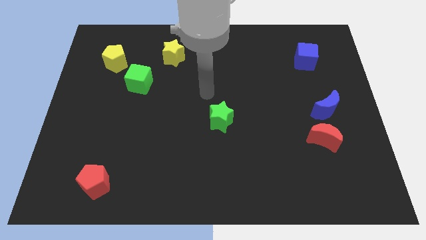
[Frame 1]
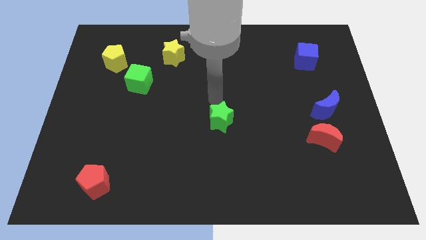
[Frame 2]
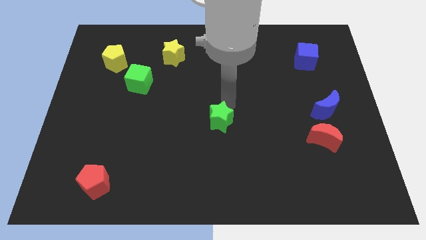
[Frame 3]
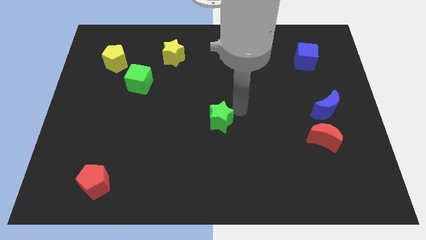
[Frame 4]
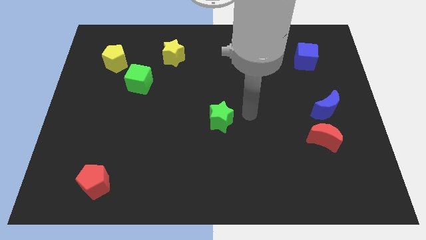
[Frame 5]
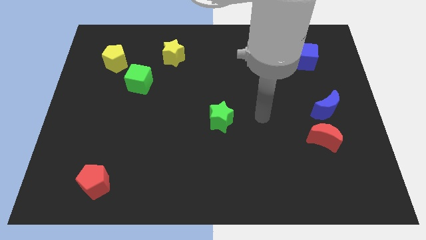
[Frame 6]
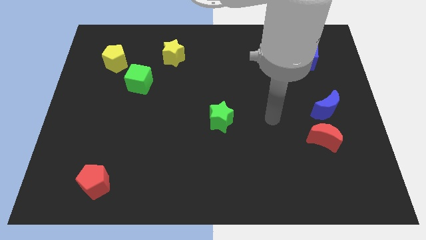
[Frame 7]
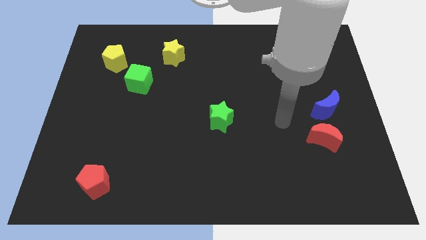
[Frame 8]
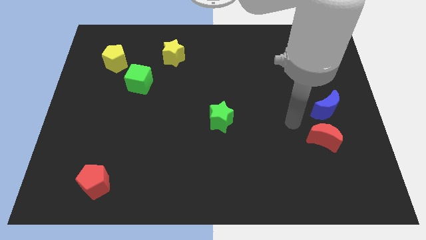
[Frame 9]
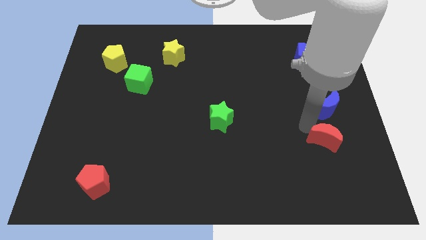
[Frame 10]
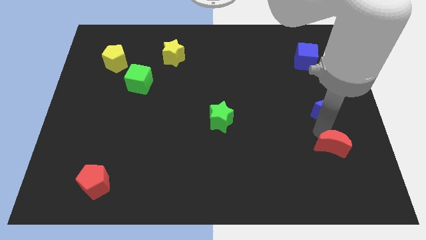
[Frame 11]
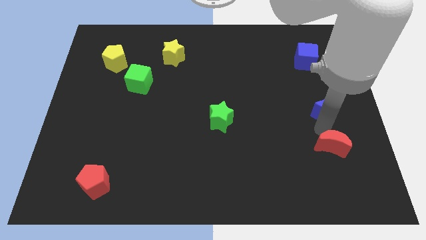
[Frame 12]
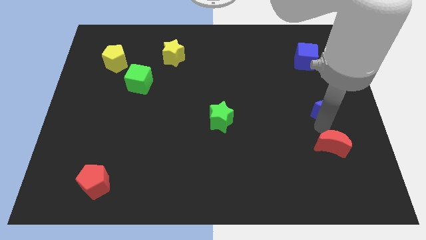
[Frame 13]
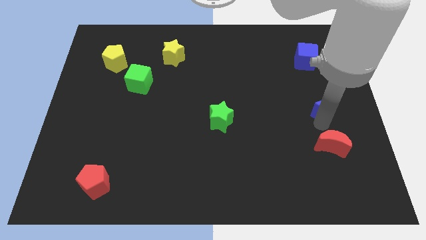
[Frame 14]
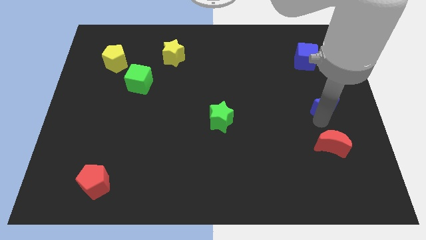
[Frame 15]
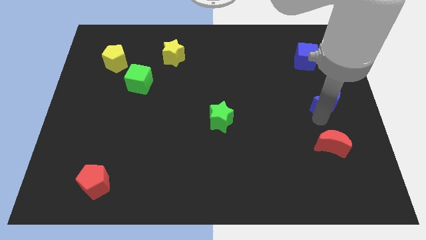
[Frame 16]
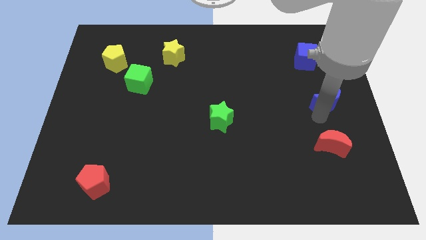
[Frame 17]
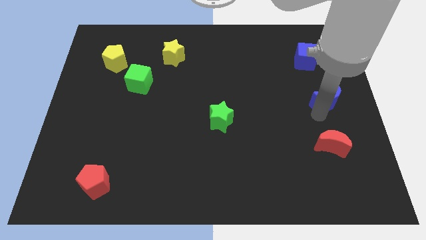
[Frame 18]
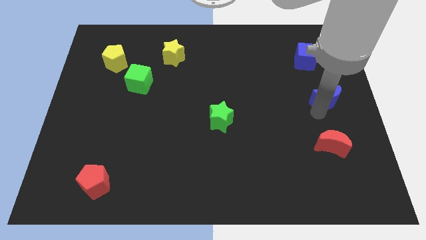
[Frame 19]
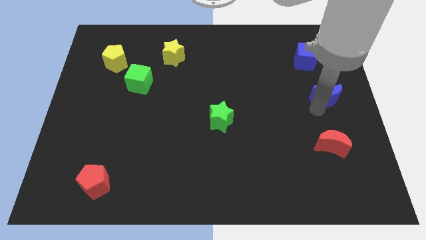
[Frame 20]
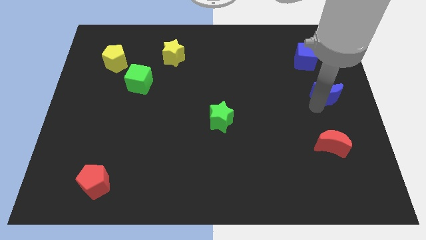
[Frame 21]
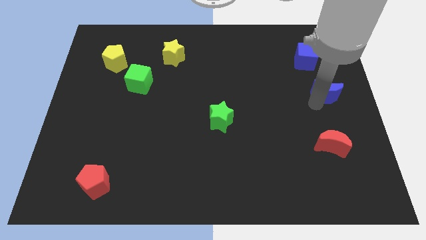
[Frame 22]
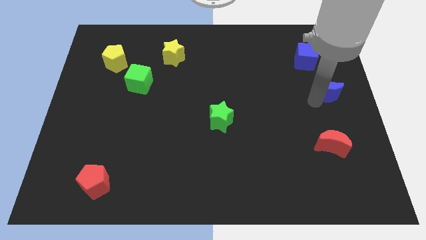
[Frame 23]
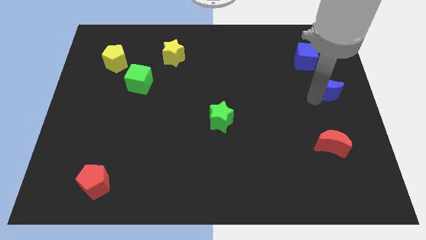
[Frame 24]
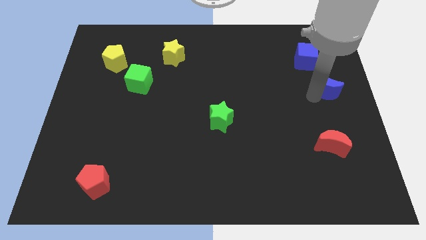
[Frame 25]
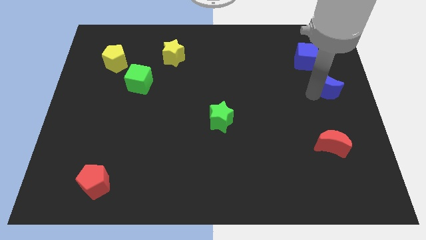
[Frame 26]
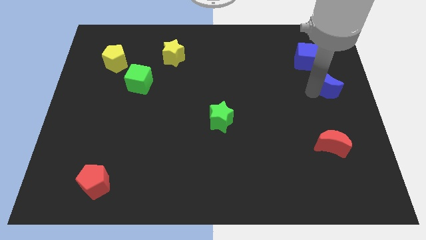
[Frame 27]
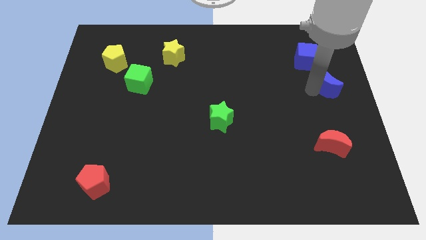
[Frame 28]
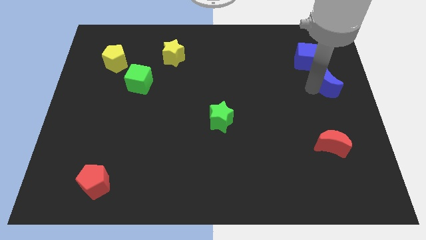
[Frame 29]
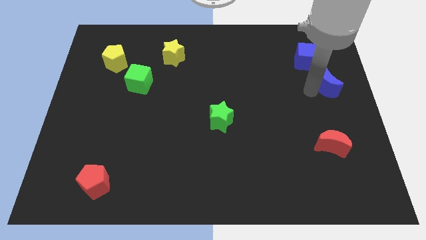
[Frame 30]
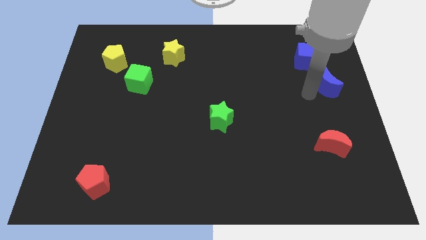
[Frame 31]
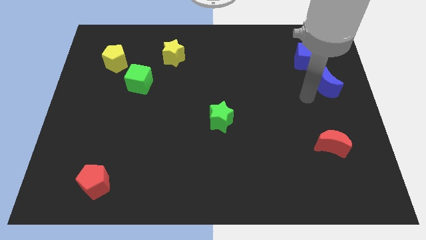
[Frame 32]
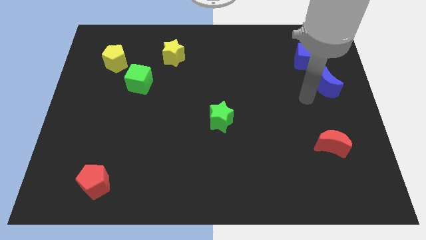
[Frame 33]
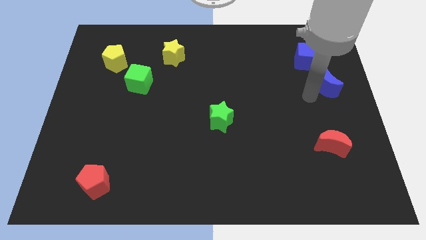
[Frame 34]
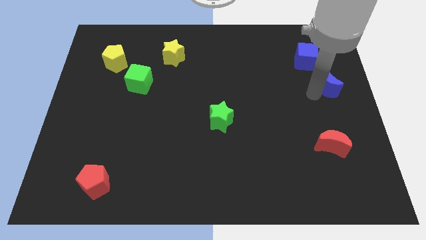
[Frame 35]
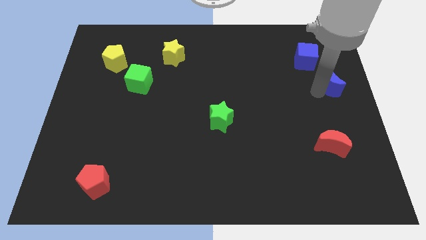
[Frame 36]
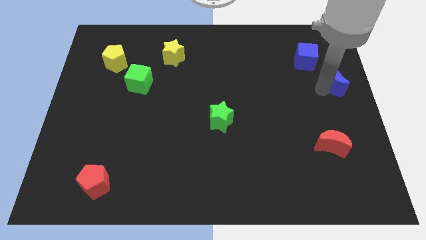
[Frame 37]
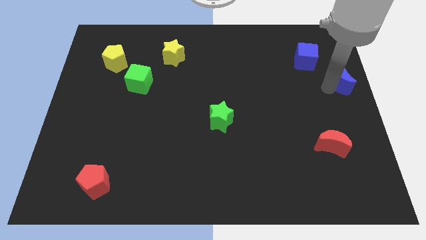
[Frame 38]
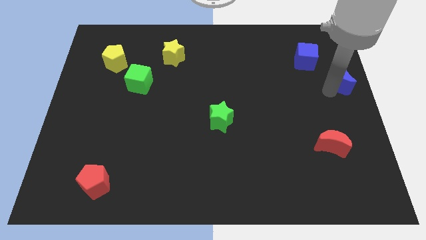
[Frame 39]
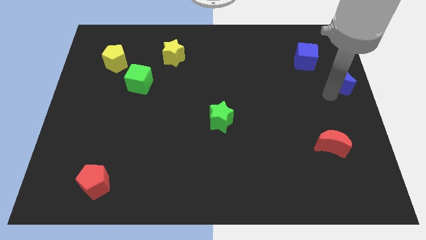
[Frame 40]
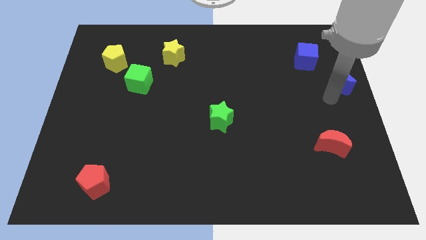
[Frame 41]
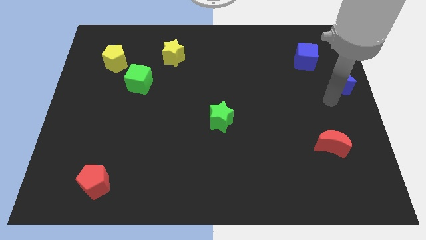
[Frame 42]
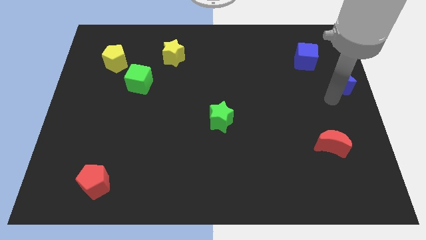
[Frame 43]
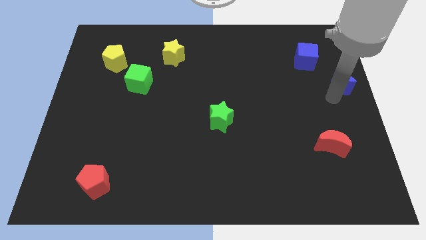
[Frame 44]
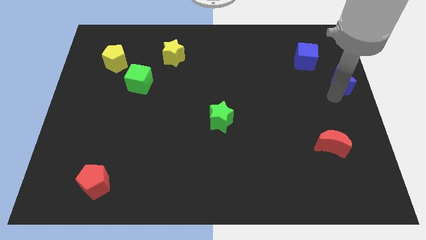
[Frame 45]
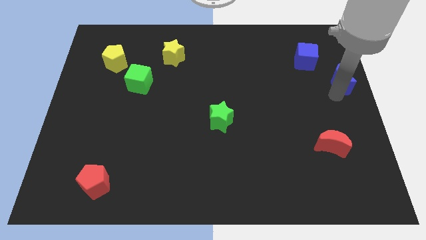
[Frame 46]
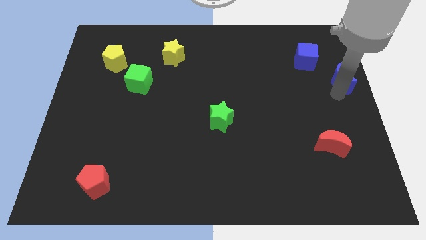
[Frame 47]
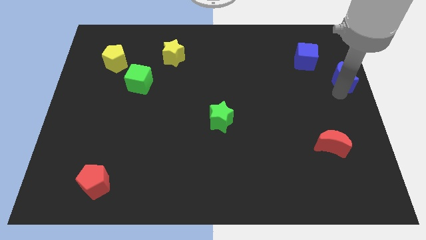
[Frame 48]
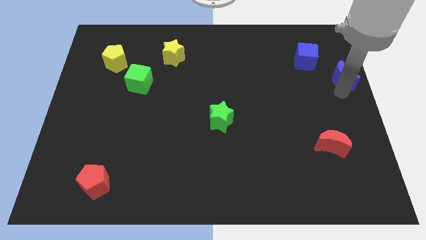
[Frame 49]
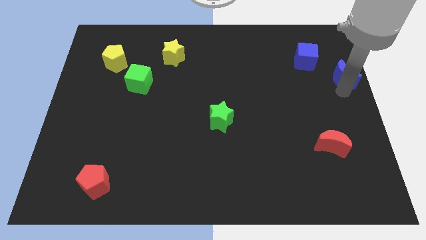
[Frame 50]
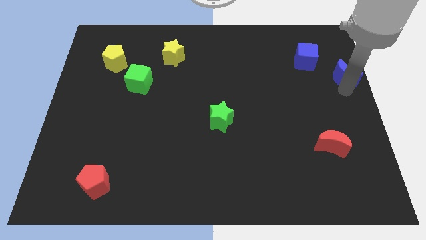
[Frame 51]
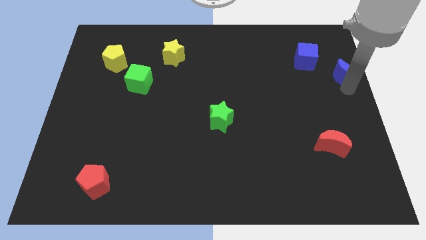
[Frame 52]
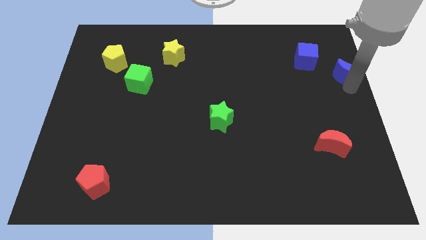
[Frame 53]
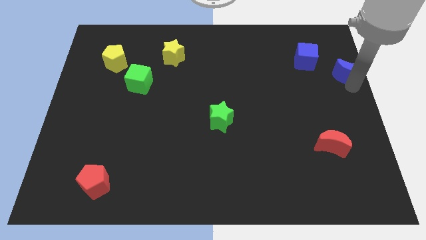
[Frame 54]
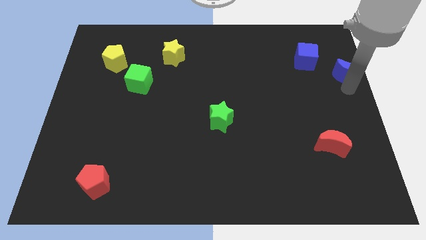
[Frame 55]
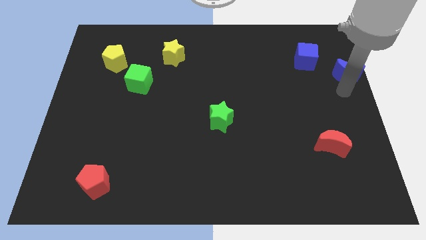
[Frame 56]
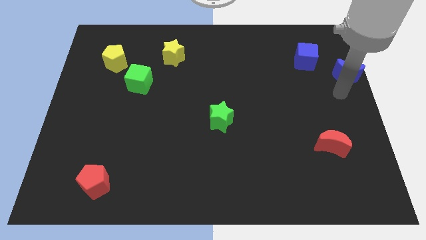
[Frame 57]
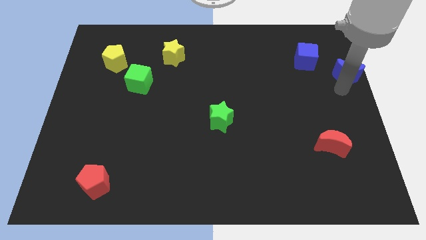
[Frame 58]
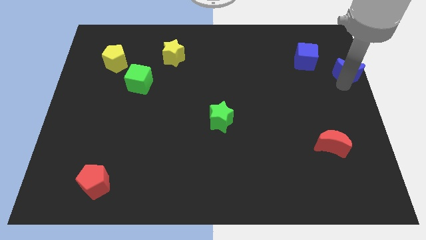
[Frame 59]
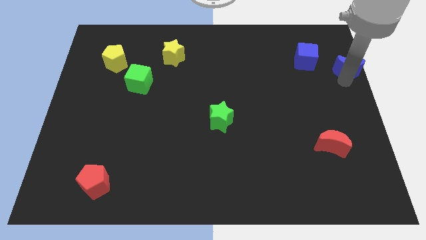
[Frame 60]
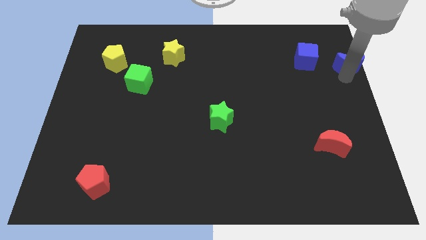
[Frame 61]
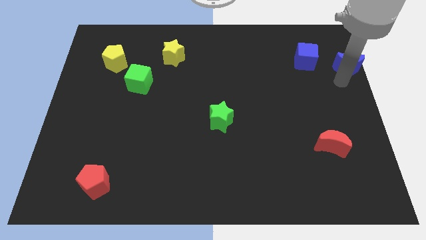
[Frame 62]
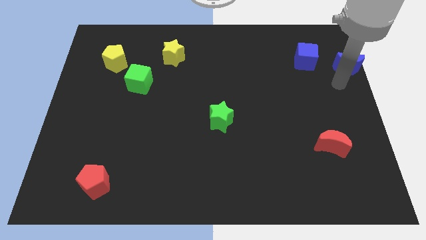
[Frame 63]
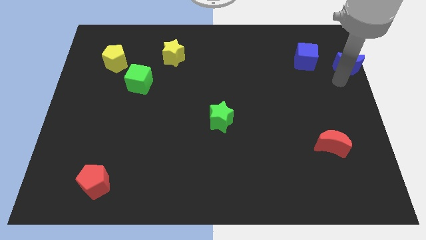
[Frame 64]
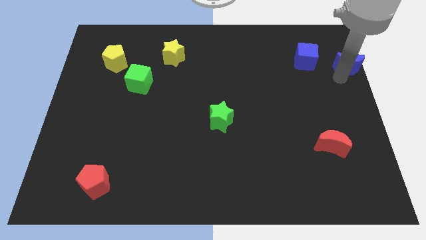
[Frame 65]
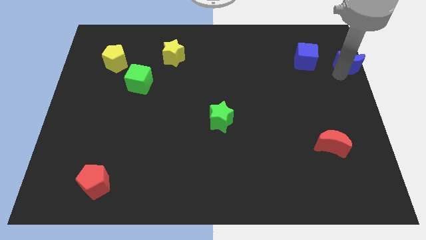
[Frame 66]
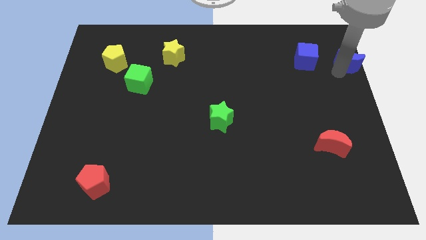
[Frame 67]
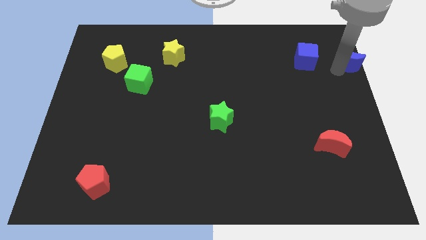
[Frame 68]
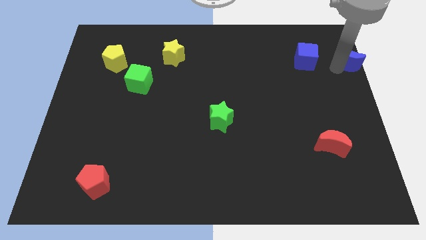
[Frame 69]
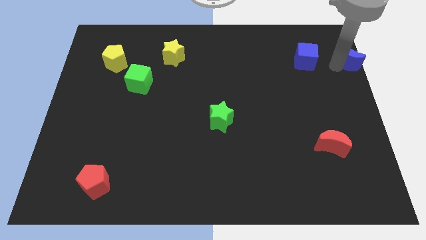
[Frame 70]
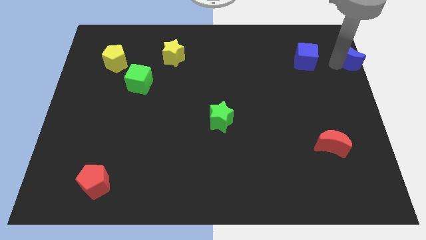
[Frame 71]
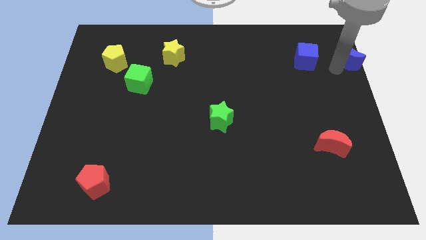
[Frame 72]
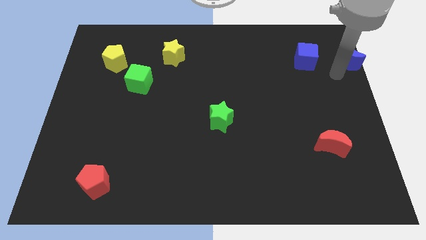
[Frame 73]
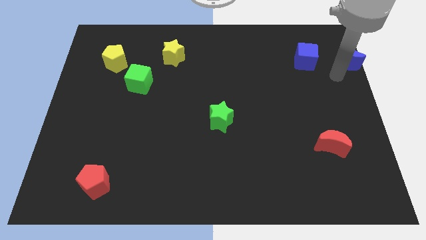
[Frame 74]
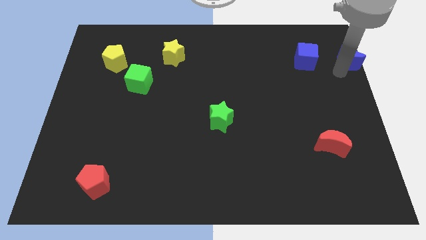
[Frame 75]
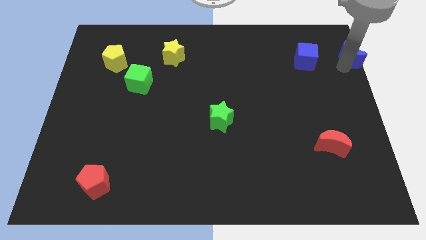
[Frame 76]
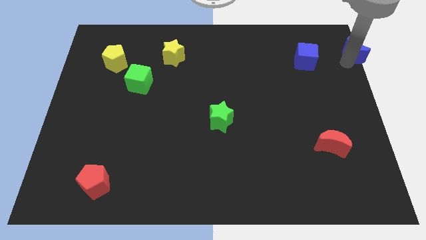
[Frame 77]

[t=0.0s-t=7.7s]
slide the blue moon to the top right corner
